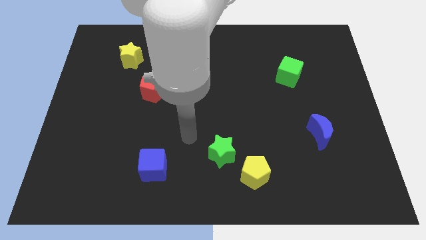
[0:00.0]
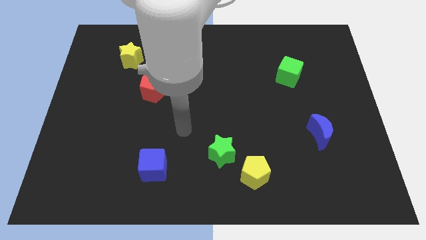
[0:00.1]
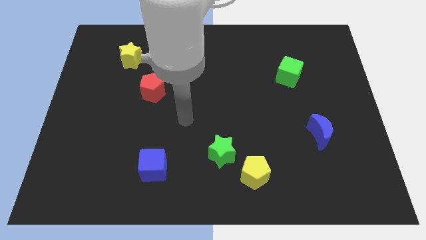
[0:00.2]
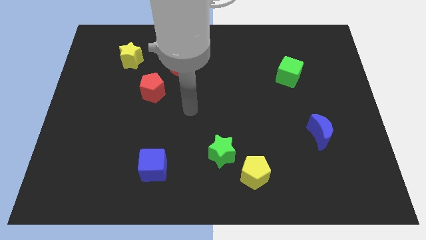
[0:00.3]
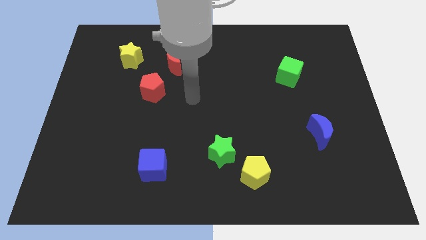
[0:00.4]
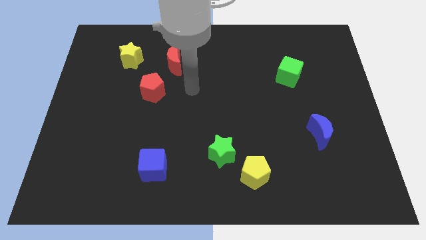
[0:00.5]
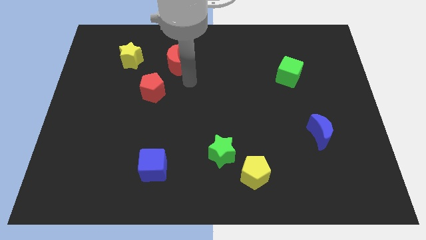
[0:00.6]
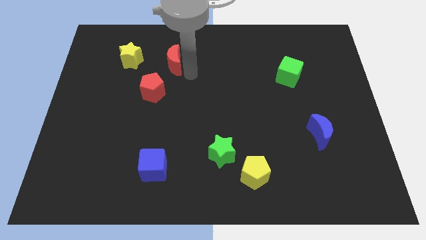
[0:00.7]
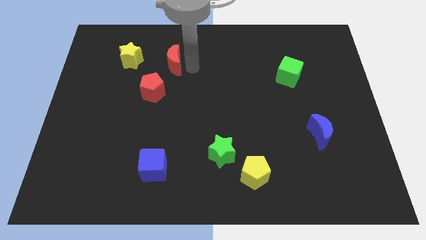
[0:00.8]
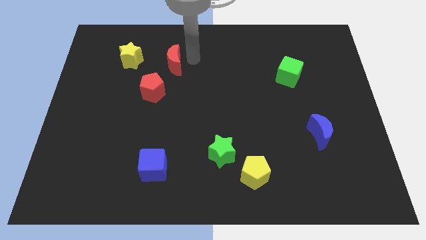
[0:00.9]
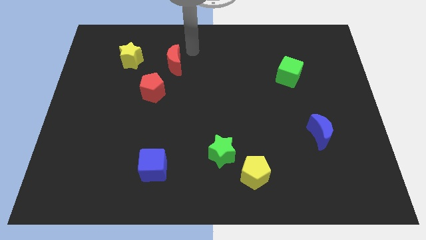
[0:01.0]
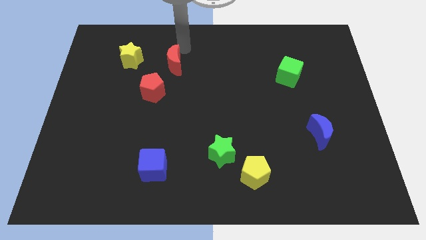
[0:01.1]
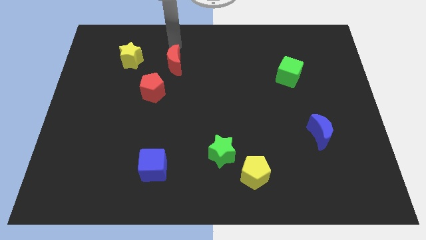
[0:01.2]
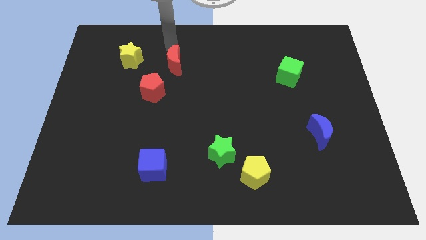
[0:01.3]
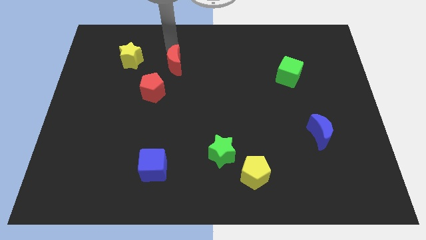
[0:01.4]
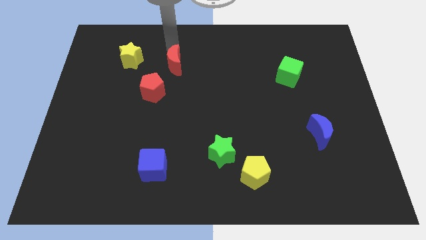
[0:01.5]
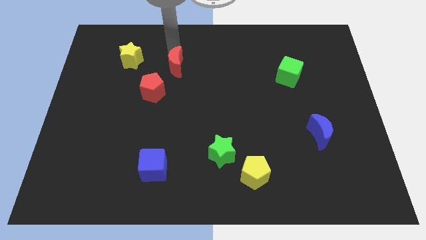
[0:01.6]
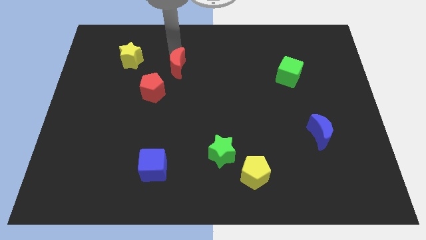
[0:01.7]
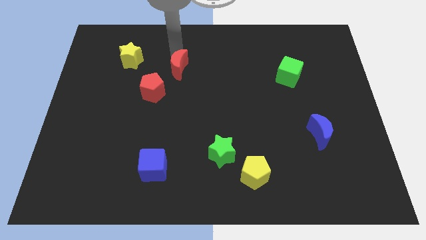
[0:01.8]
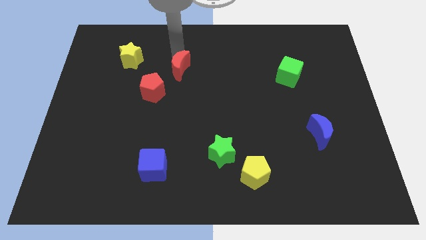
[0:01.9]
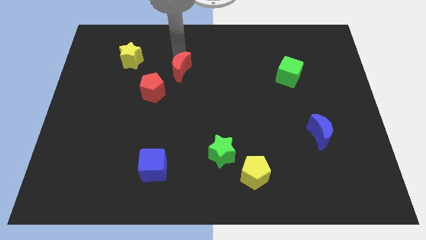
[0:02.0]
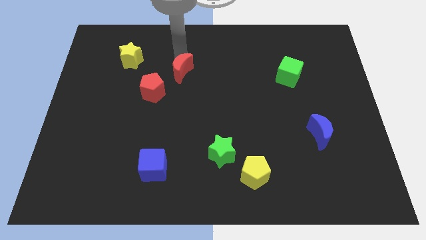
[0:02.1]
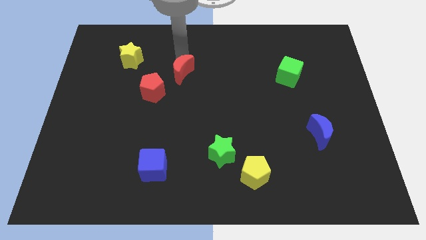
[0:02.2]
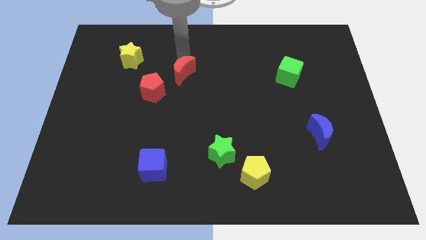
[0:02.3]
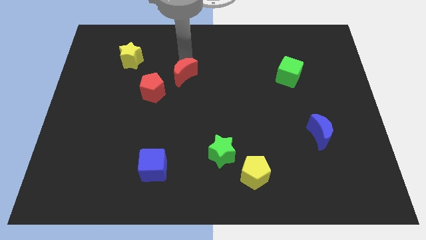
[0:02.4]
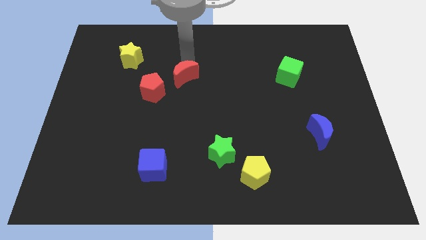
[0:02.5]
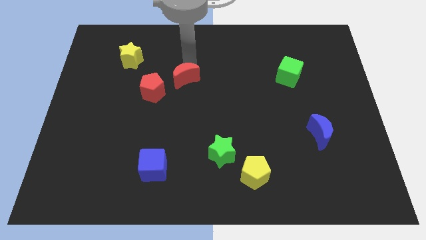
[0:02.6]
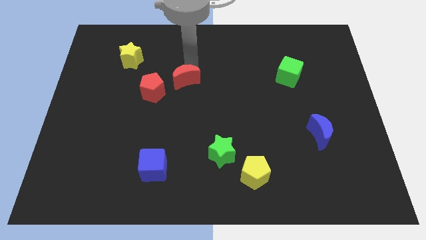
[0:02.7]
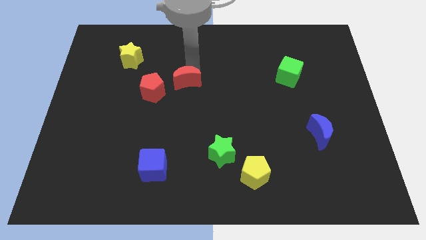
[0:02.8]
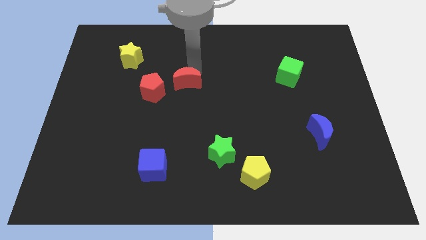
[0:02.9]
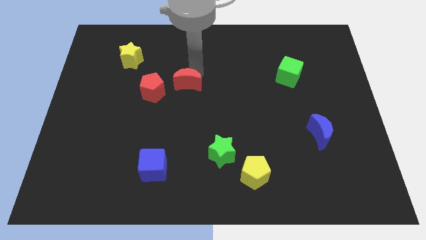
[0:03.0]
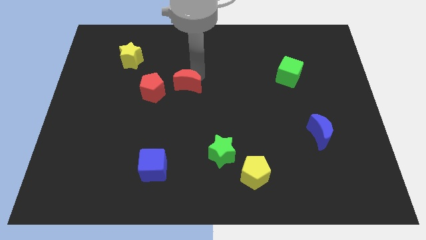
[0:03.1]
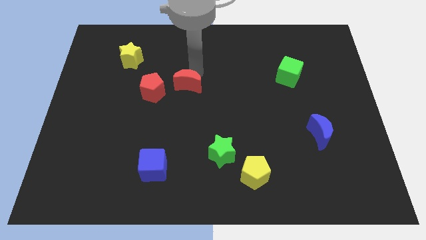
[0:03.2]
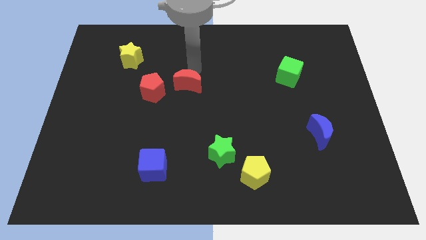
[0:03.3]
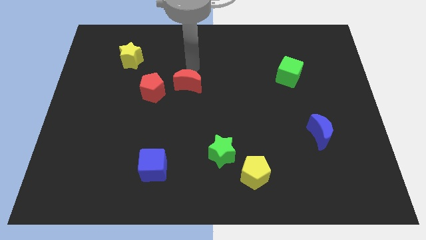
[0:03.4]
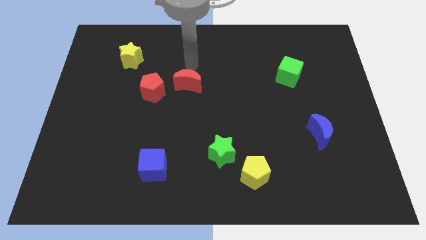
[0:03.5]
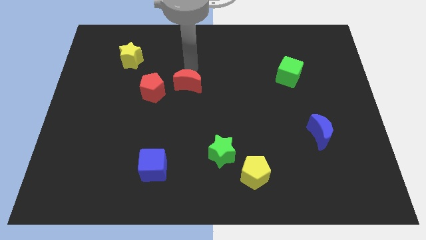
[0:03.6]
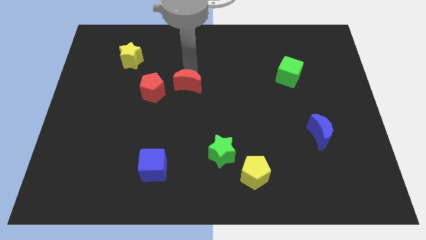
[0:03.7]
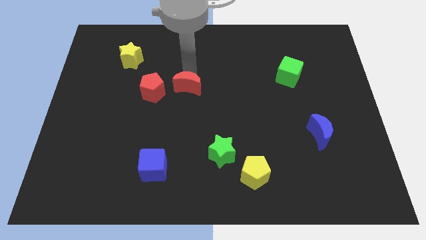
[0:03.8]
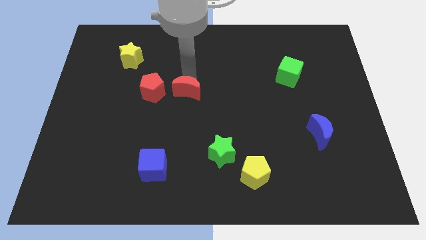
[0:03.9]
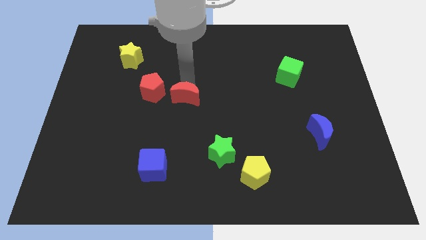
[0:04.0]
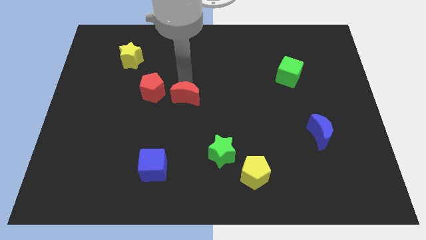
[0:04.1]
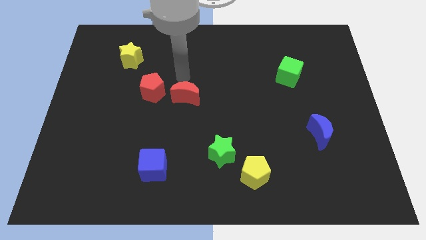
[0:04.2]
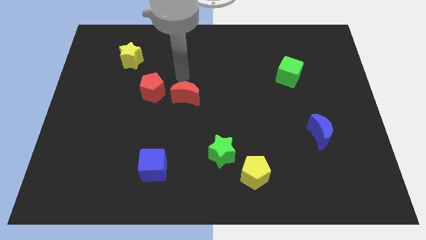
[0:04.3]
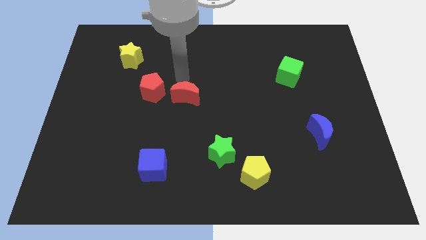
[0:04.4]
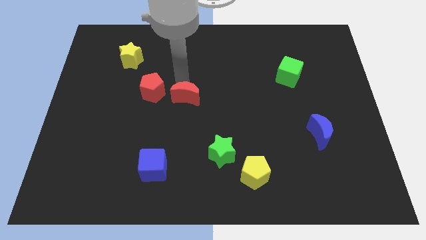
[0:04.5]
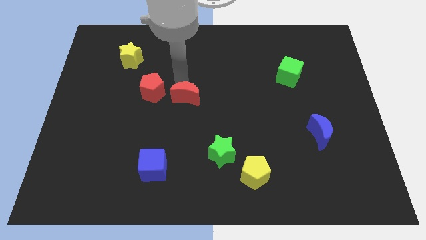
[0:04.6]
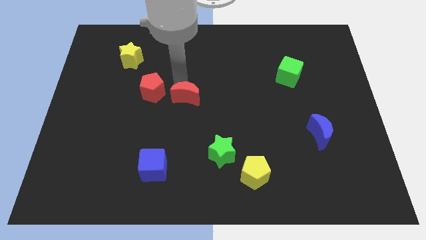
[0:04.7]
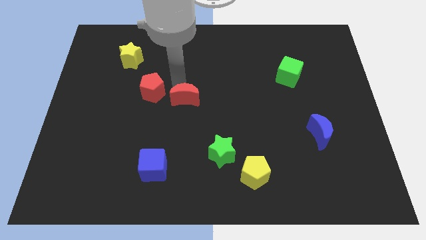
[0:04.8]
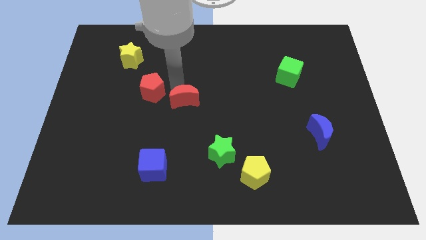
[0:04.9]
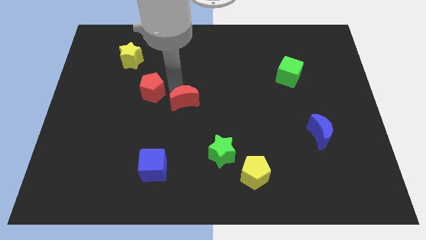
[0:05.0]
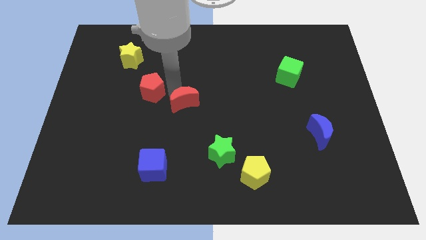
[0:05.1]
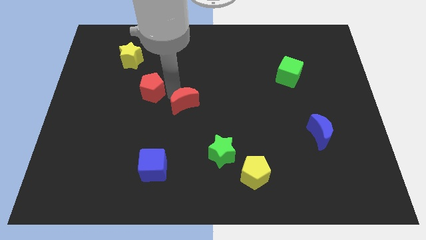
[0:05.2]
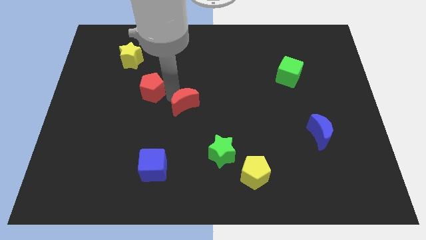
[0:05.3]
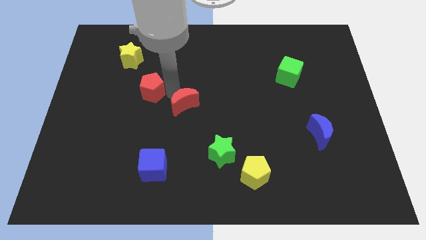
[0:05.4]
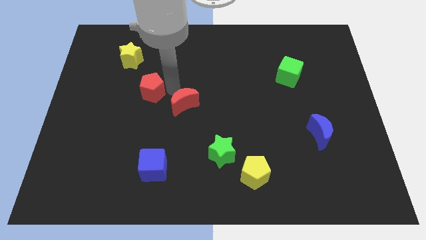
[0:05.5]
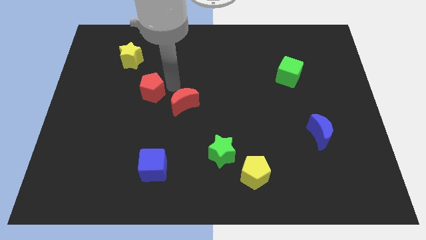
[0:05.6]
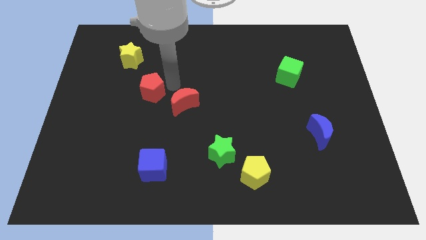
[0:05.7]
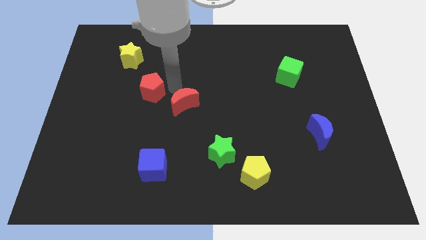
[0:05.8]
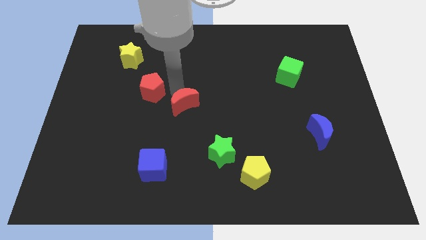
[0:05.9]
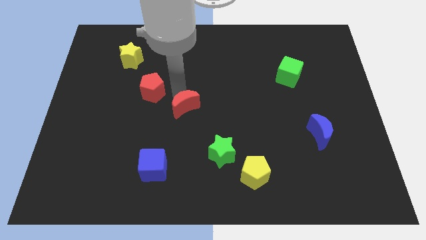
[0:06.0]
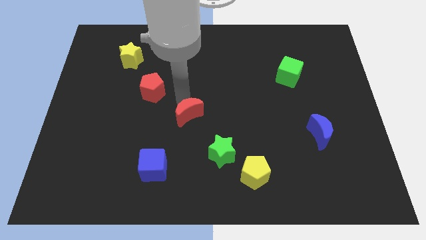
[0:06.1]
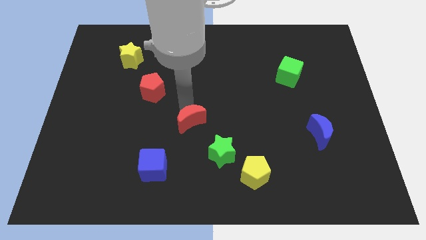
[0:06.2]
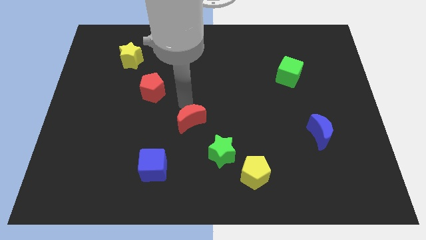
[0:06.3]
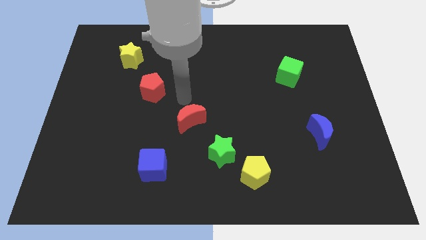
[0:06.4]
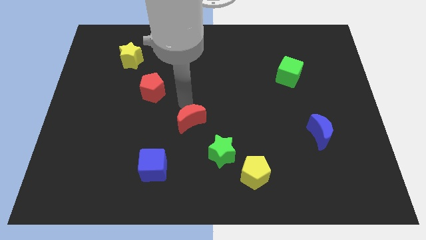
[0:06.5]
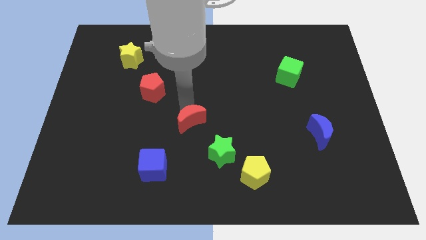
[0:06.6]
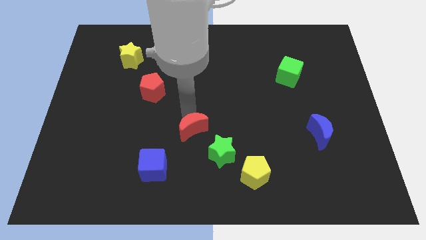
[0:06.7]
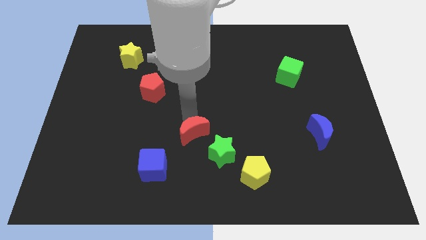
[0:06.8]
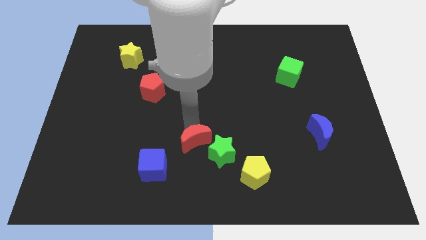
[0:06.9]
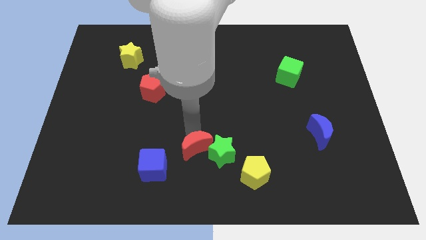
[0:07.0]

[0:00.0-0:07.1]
put the red moon to the right of the blue cube

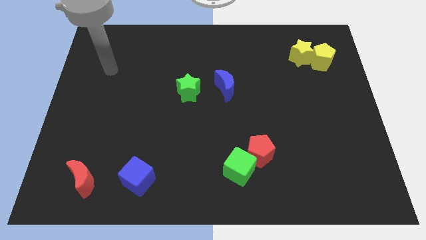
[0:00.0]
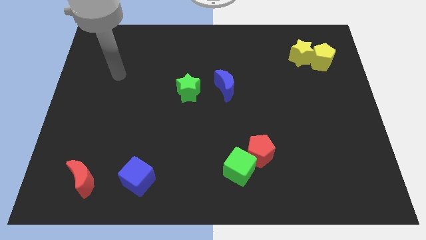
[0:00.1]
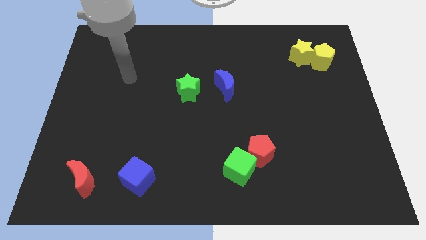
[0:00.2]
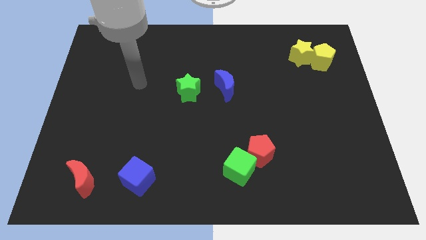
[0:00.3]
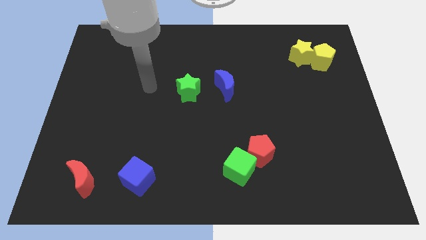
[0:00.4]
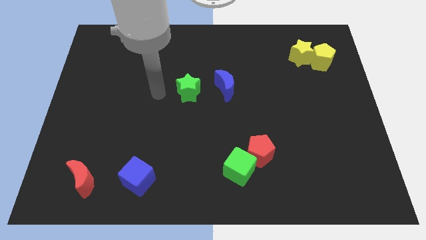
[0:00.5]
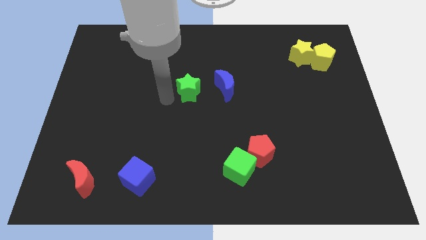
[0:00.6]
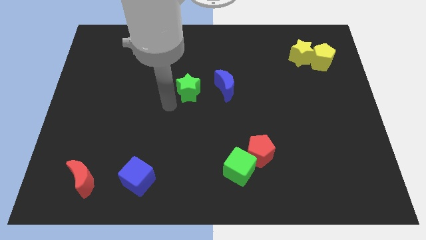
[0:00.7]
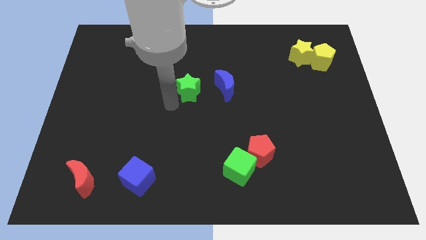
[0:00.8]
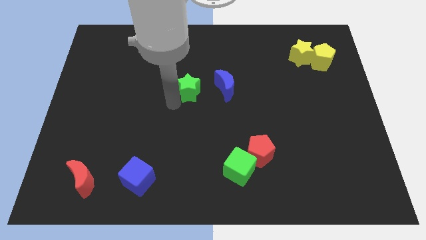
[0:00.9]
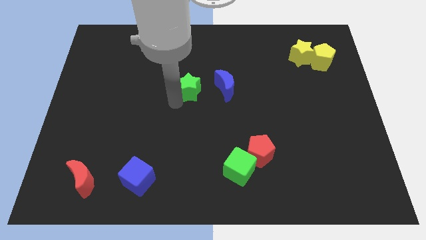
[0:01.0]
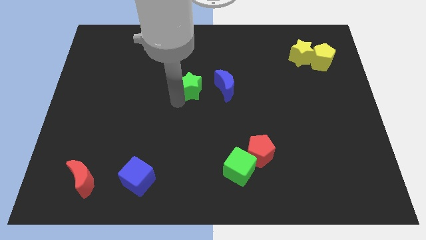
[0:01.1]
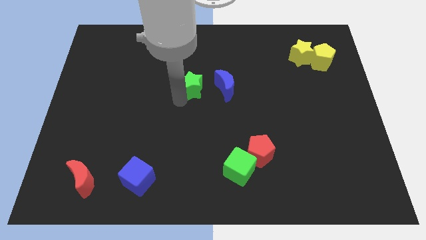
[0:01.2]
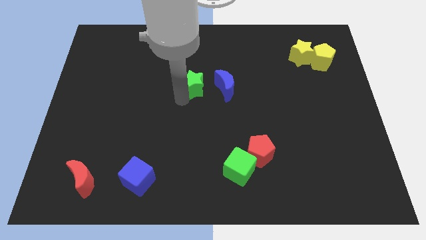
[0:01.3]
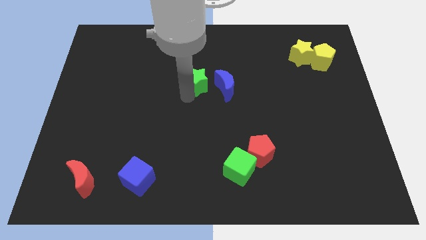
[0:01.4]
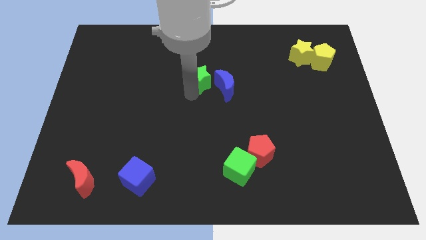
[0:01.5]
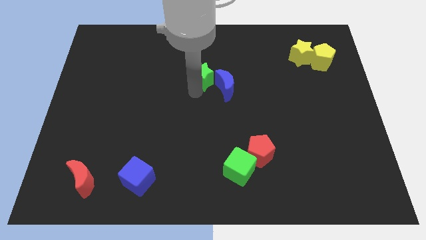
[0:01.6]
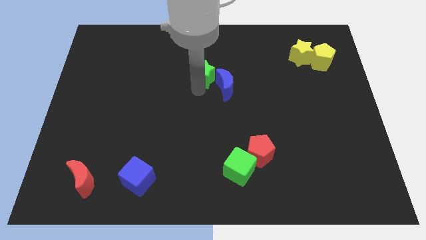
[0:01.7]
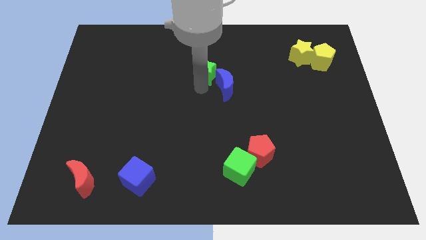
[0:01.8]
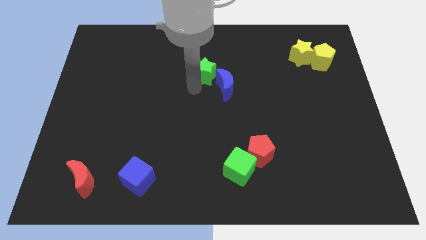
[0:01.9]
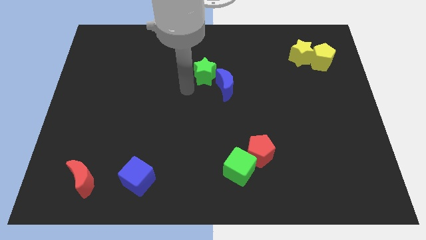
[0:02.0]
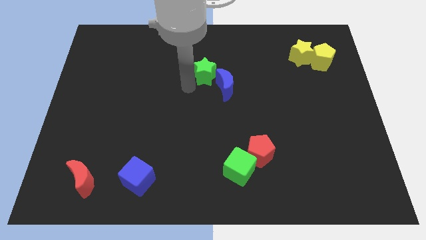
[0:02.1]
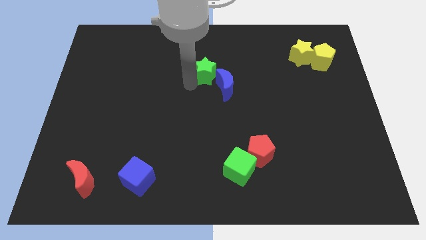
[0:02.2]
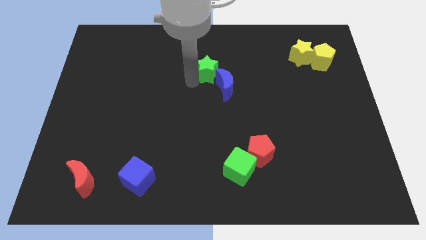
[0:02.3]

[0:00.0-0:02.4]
push the green star to the top of the blue moon
